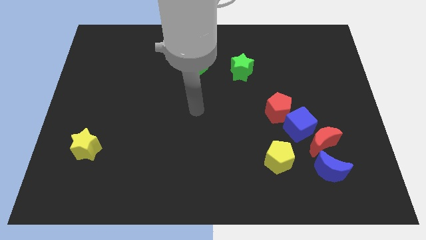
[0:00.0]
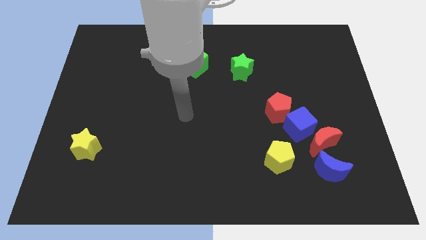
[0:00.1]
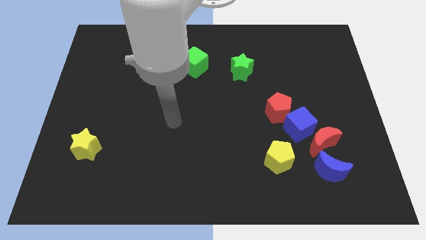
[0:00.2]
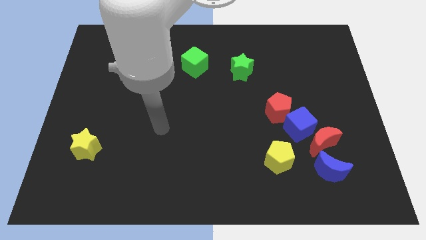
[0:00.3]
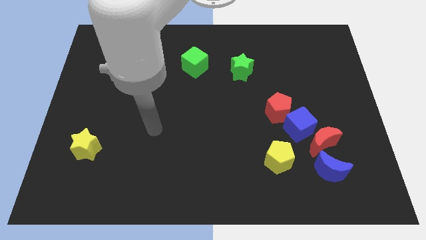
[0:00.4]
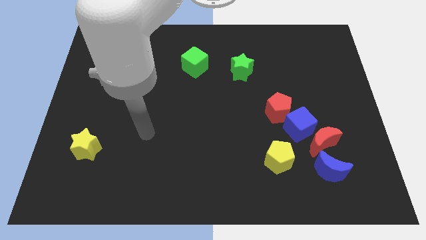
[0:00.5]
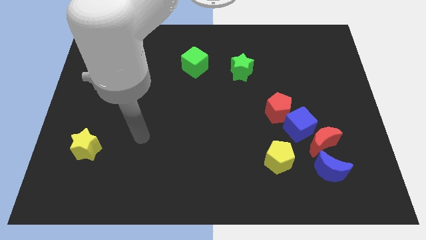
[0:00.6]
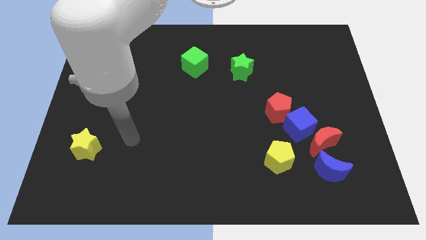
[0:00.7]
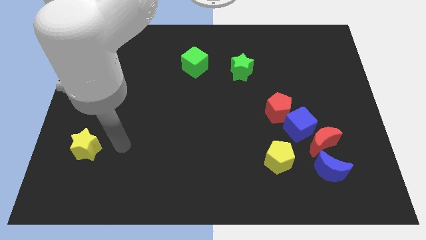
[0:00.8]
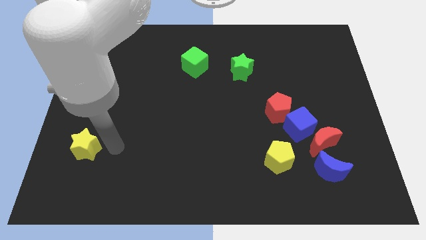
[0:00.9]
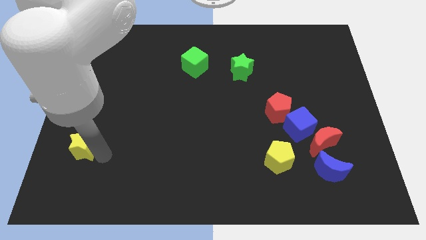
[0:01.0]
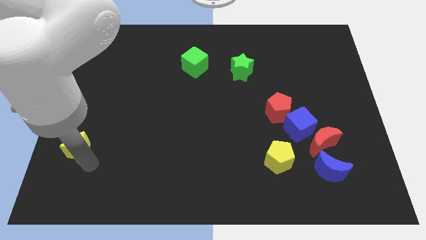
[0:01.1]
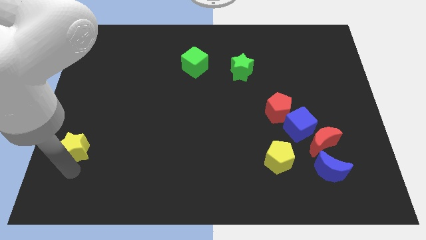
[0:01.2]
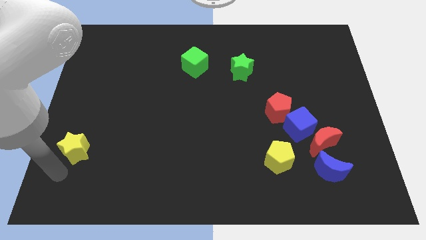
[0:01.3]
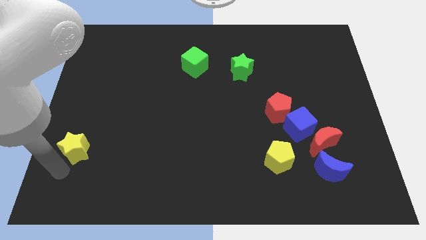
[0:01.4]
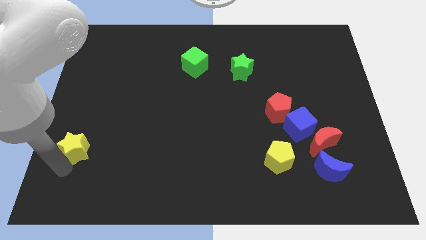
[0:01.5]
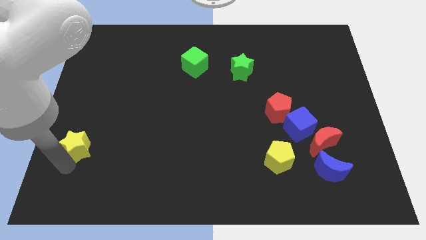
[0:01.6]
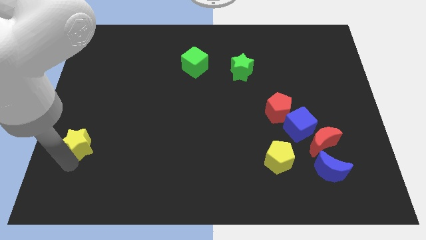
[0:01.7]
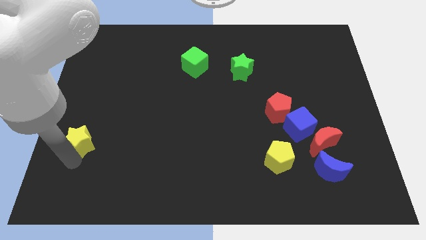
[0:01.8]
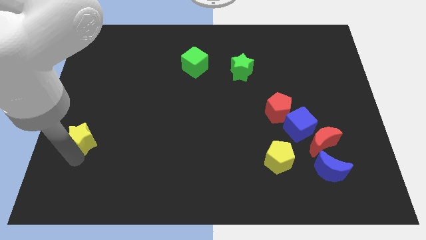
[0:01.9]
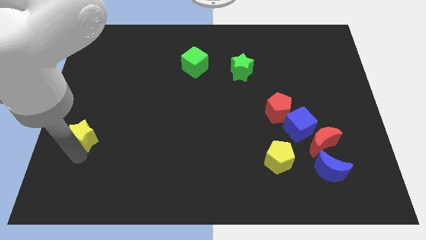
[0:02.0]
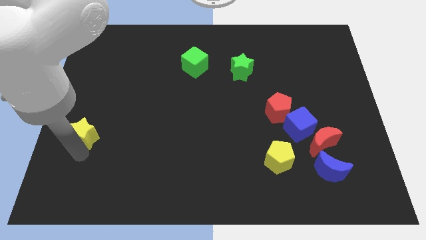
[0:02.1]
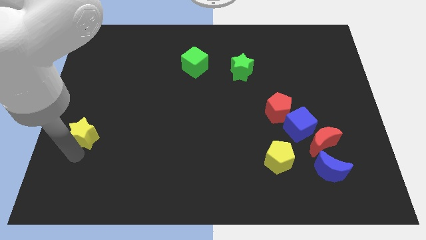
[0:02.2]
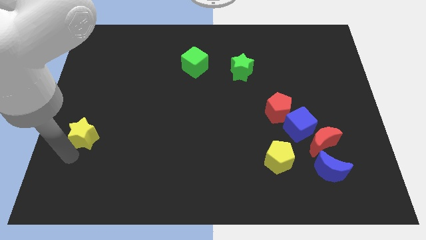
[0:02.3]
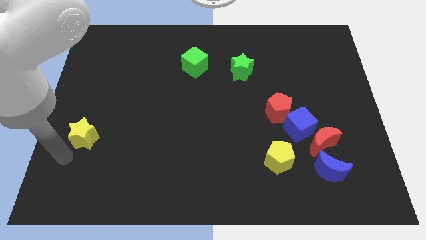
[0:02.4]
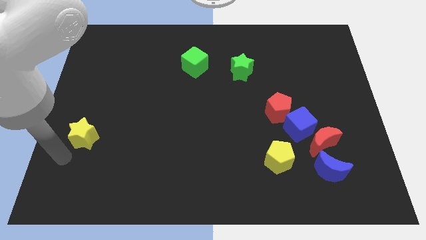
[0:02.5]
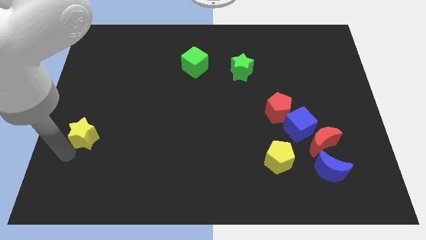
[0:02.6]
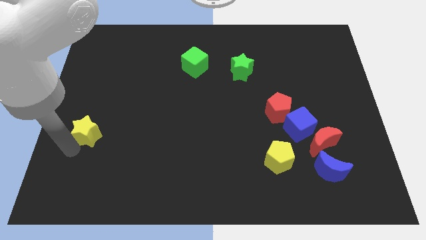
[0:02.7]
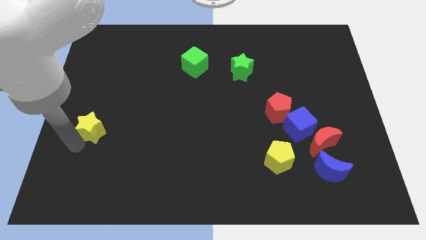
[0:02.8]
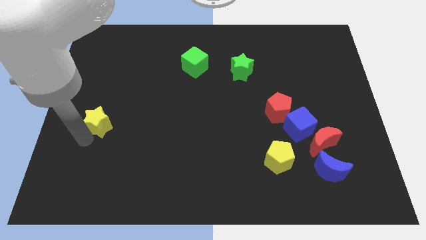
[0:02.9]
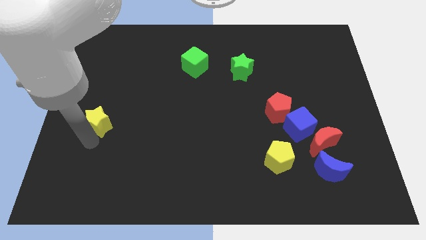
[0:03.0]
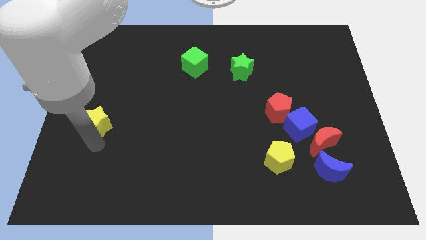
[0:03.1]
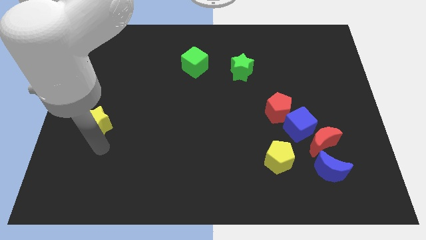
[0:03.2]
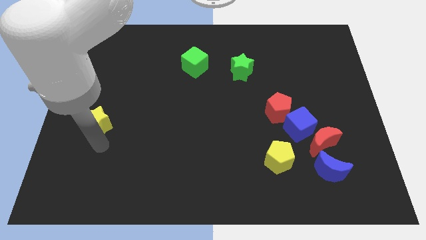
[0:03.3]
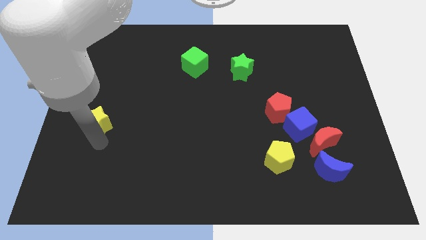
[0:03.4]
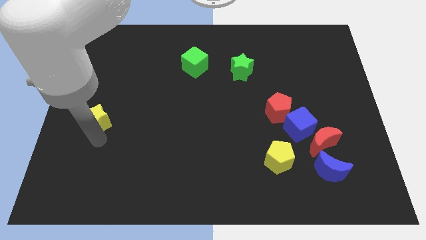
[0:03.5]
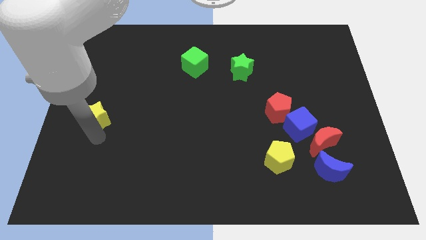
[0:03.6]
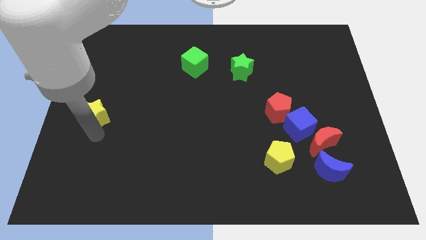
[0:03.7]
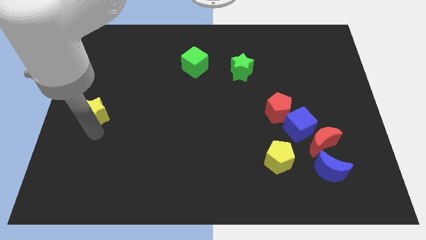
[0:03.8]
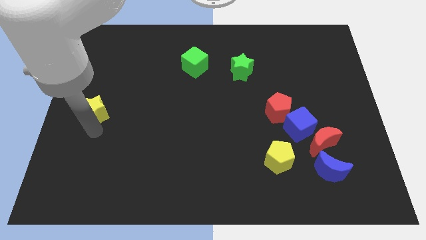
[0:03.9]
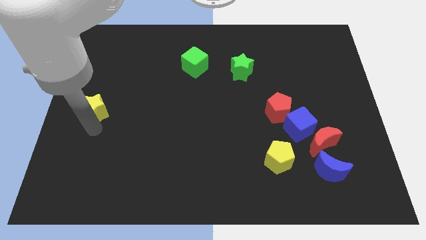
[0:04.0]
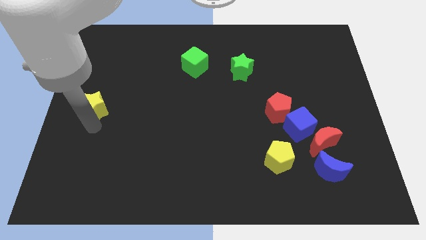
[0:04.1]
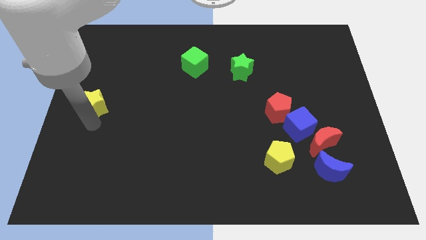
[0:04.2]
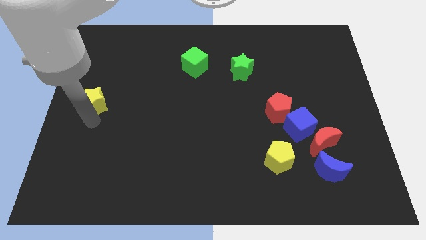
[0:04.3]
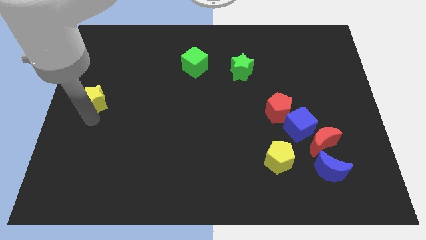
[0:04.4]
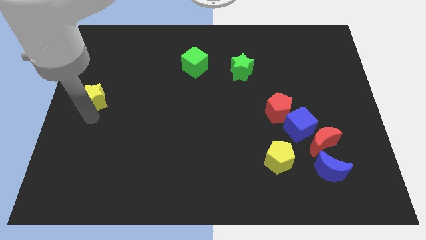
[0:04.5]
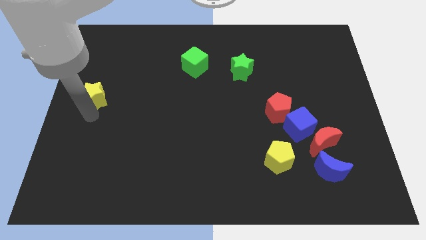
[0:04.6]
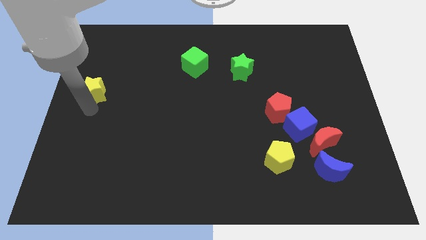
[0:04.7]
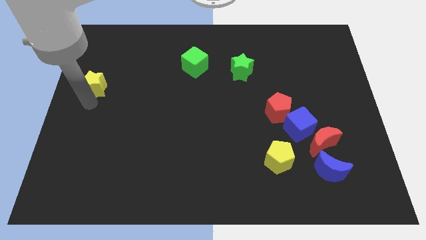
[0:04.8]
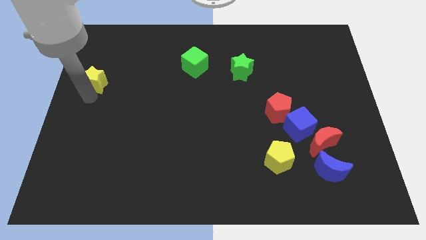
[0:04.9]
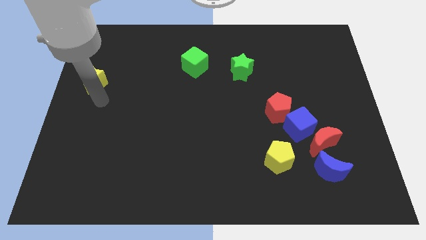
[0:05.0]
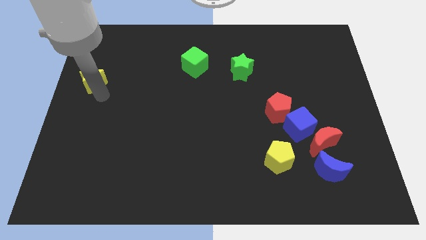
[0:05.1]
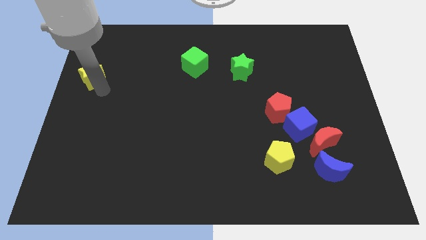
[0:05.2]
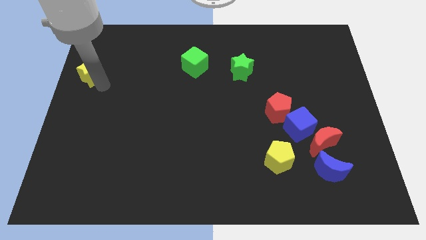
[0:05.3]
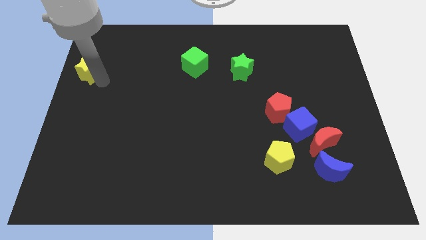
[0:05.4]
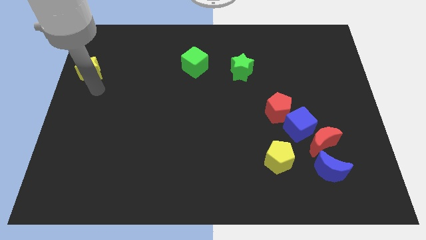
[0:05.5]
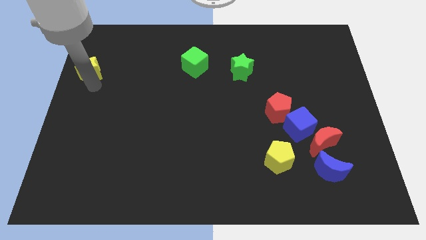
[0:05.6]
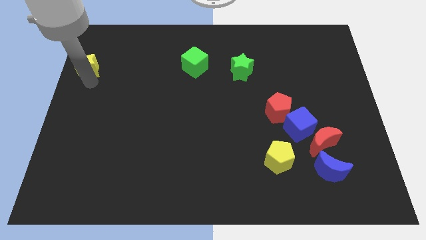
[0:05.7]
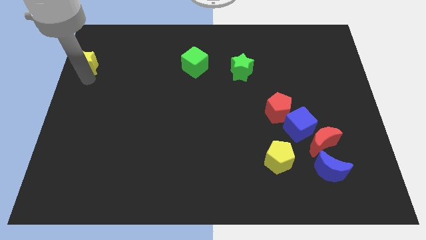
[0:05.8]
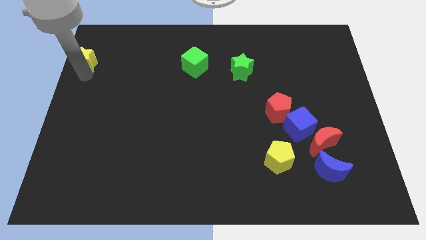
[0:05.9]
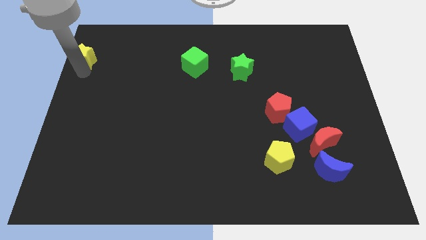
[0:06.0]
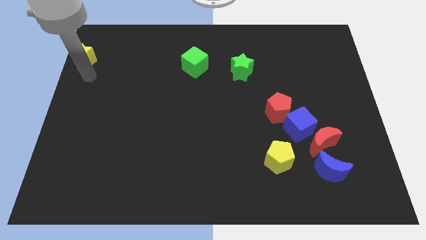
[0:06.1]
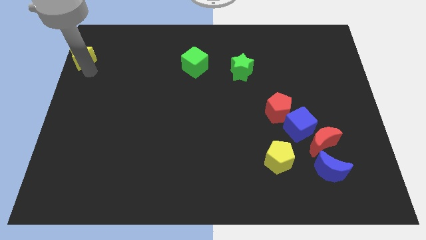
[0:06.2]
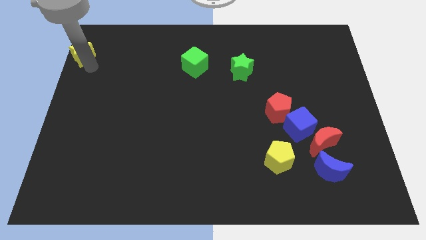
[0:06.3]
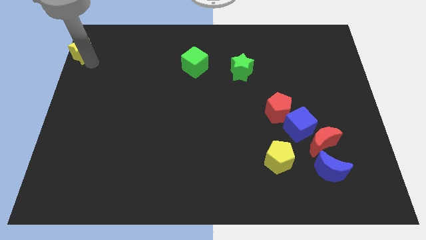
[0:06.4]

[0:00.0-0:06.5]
move the yellow star to the top left corner
